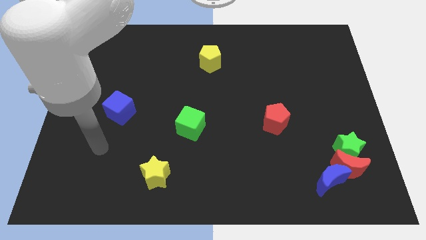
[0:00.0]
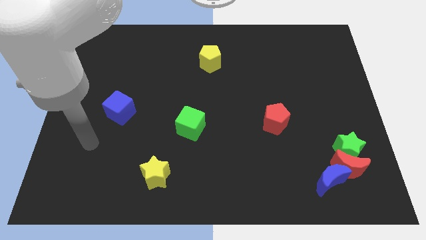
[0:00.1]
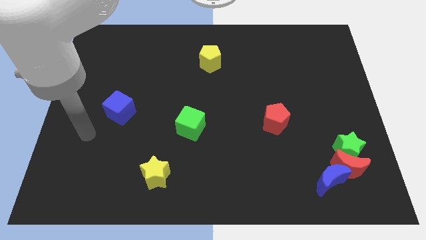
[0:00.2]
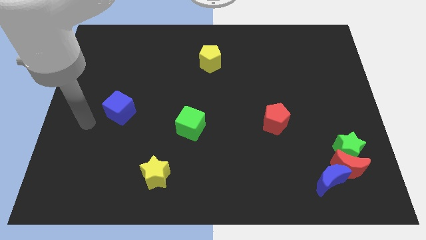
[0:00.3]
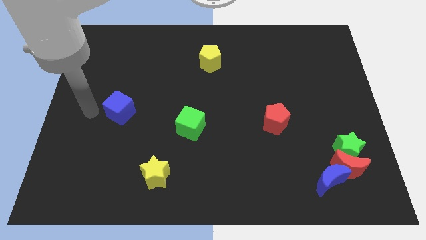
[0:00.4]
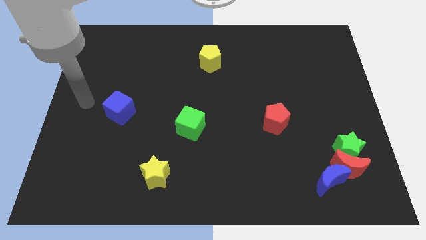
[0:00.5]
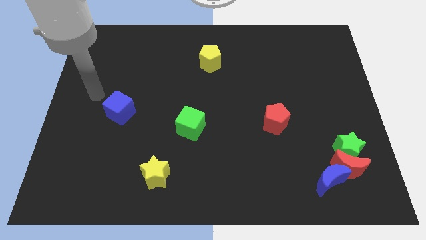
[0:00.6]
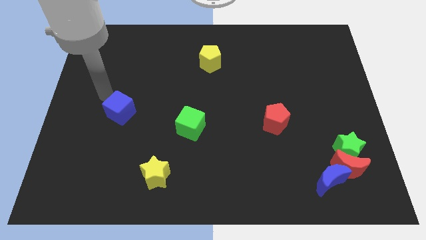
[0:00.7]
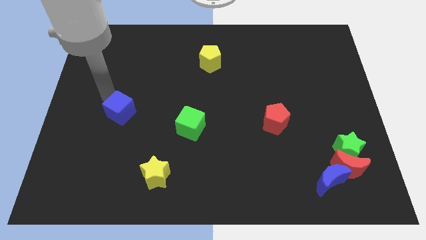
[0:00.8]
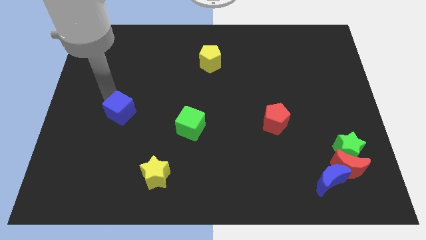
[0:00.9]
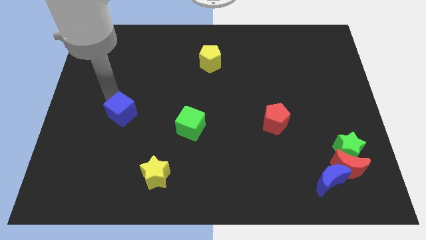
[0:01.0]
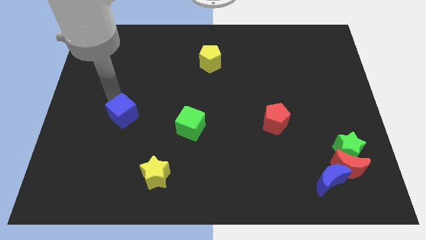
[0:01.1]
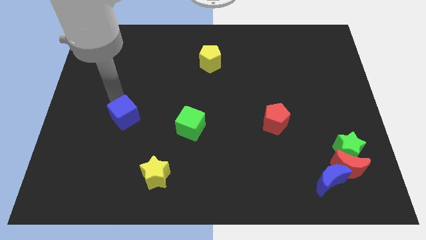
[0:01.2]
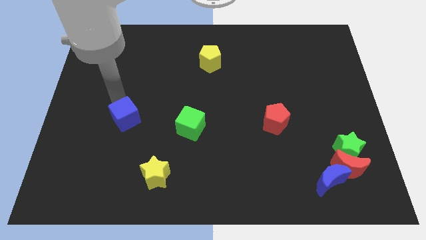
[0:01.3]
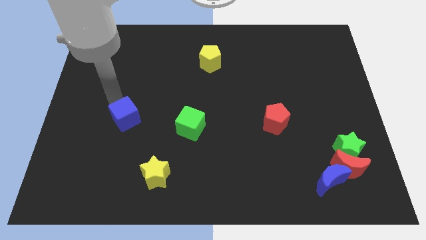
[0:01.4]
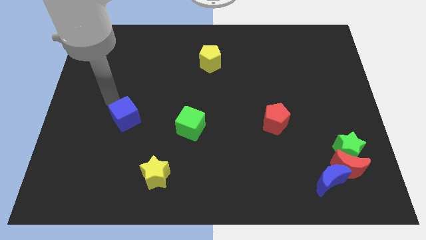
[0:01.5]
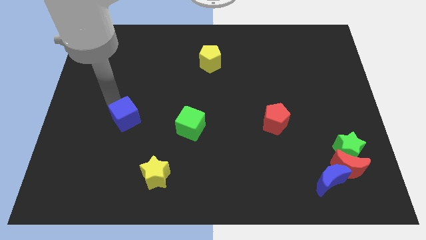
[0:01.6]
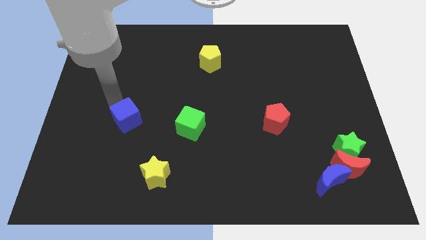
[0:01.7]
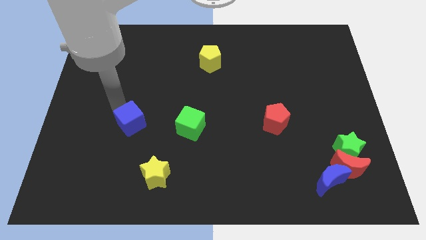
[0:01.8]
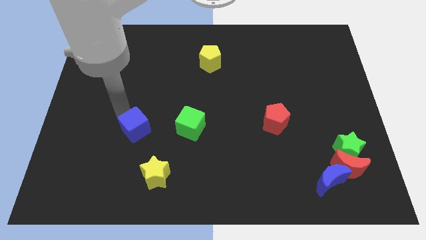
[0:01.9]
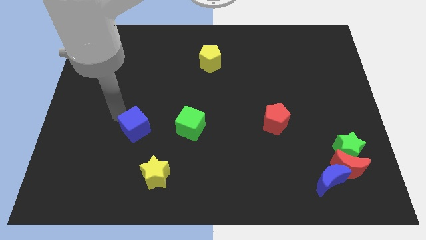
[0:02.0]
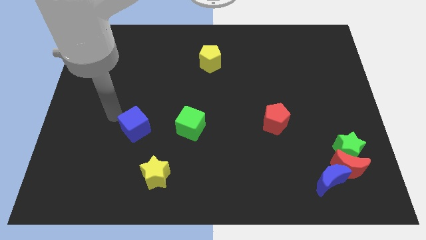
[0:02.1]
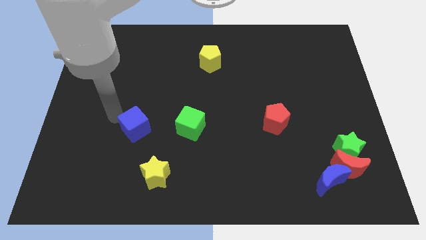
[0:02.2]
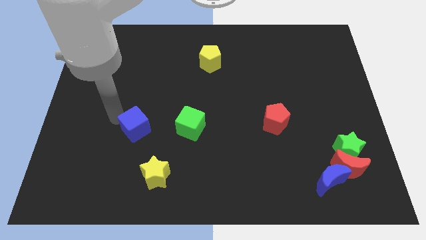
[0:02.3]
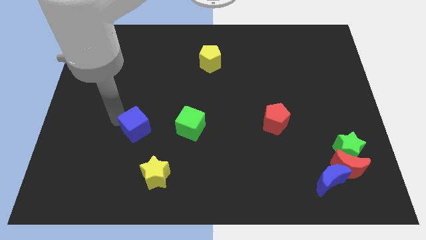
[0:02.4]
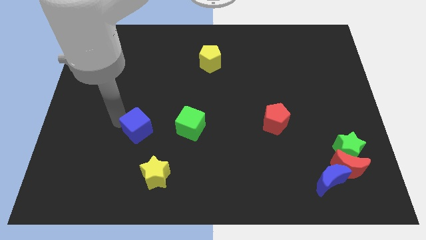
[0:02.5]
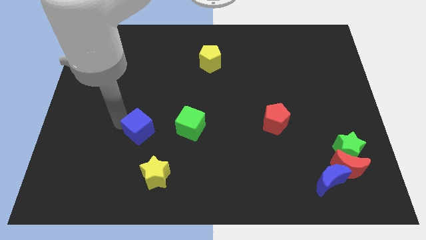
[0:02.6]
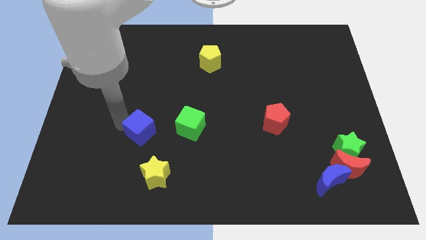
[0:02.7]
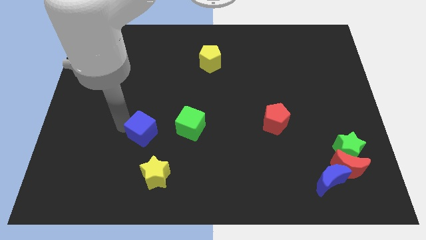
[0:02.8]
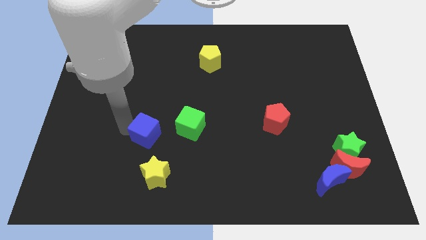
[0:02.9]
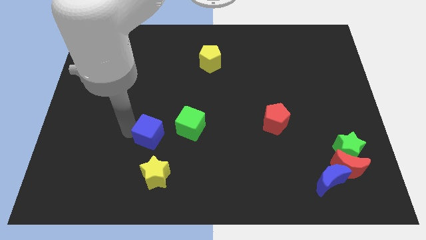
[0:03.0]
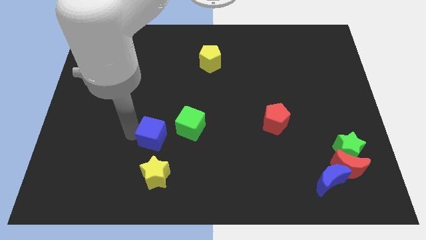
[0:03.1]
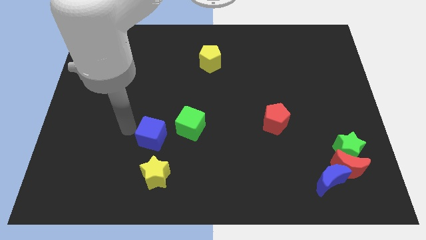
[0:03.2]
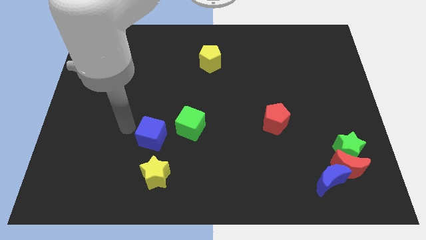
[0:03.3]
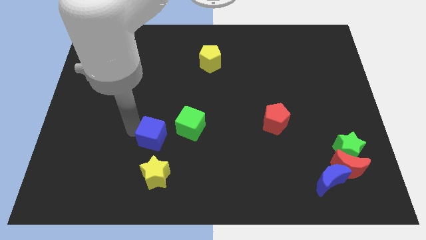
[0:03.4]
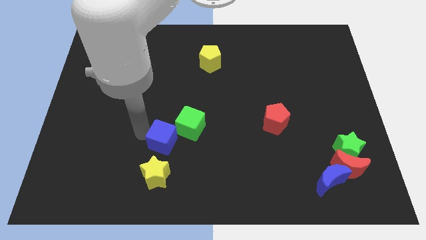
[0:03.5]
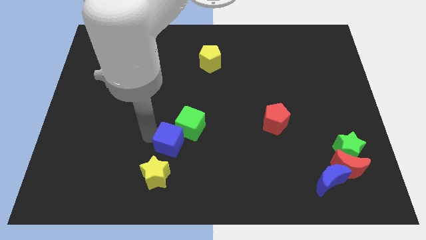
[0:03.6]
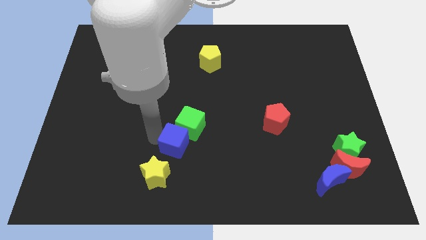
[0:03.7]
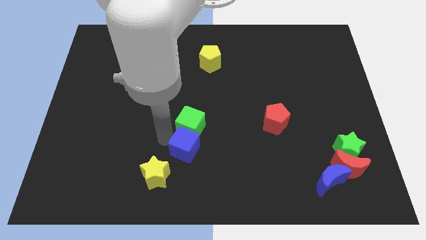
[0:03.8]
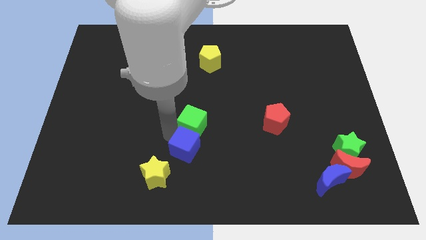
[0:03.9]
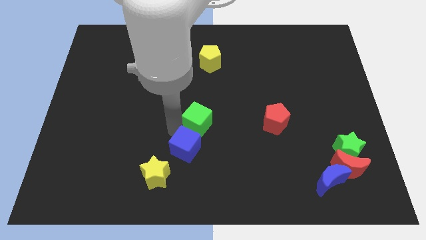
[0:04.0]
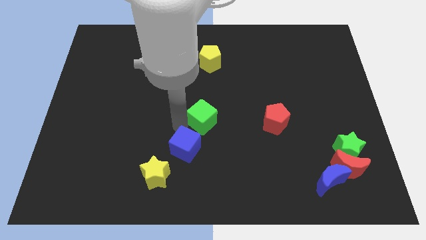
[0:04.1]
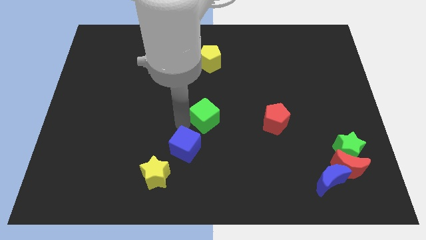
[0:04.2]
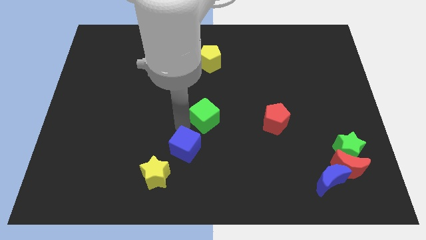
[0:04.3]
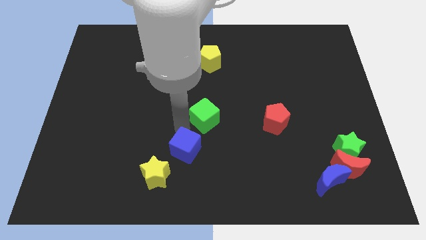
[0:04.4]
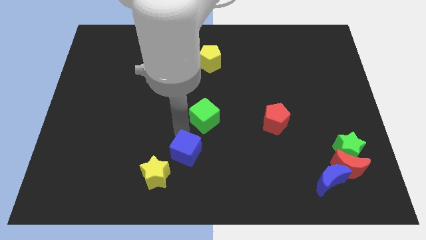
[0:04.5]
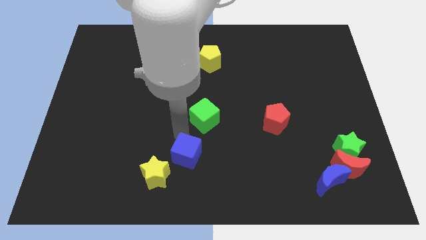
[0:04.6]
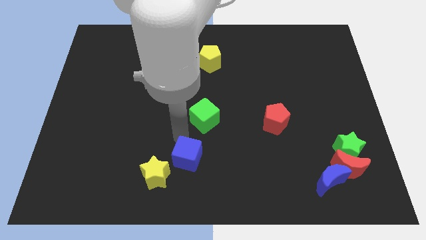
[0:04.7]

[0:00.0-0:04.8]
push the blue cube to the bottom side

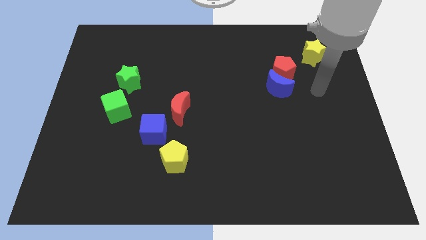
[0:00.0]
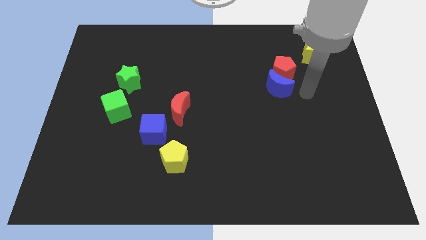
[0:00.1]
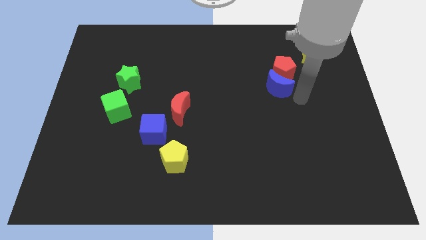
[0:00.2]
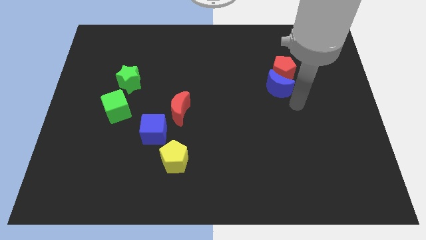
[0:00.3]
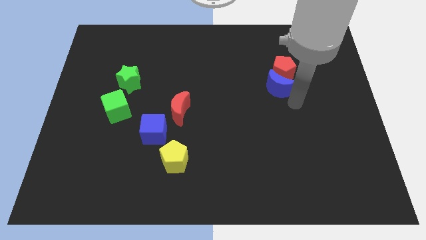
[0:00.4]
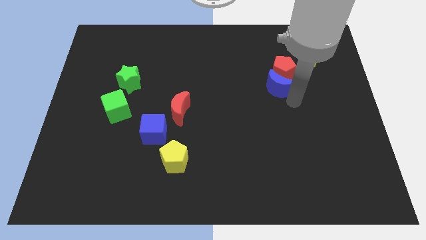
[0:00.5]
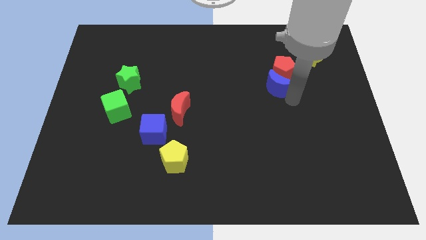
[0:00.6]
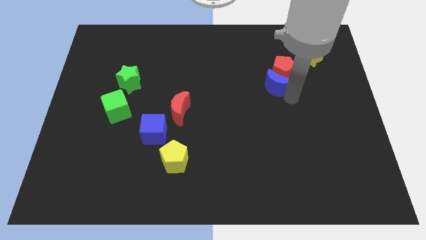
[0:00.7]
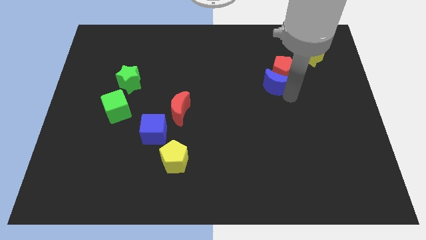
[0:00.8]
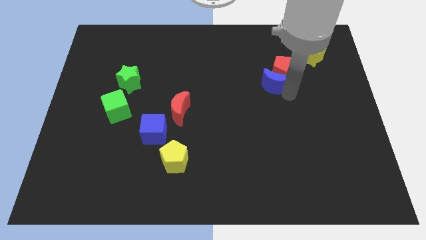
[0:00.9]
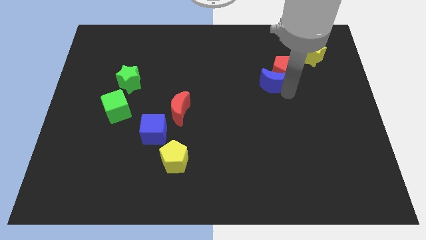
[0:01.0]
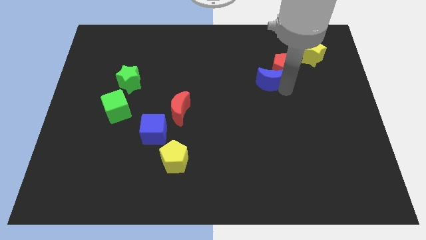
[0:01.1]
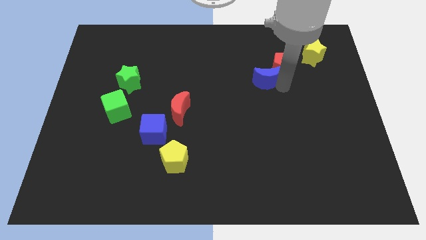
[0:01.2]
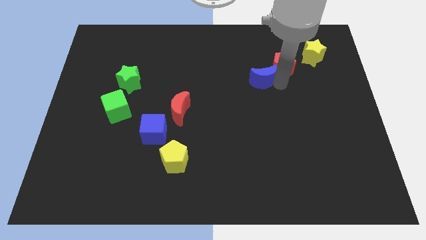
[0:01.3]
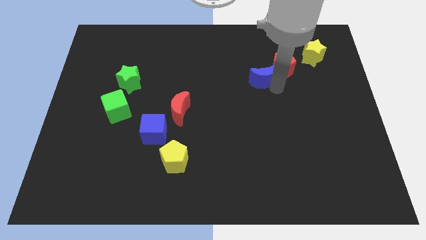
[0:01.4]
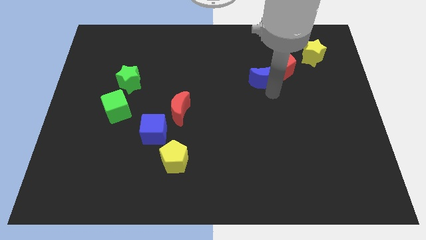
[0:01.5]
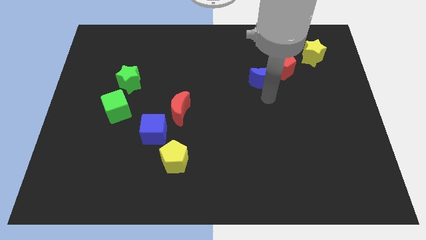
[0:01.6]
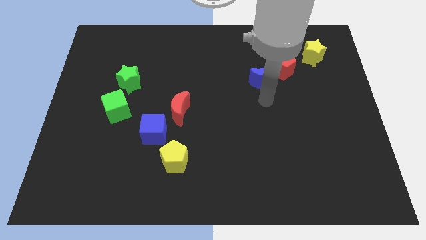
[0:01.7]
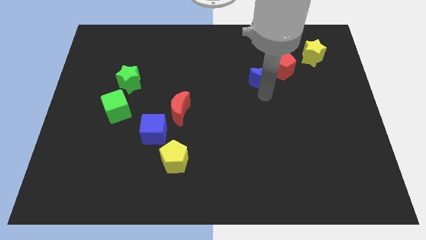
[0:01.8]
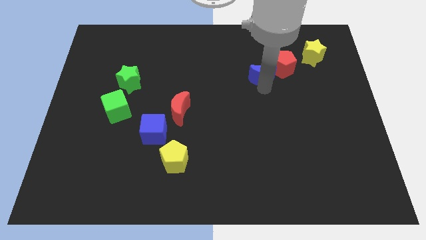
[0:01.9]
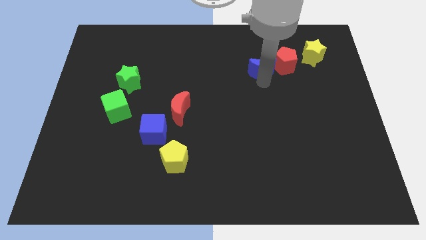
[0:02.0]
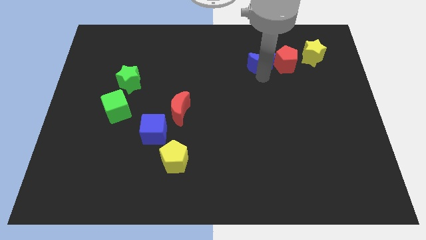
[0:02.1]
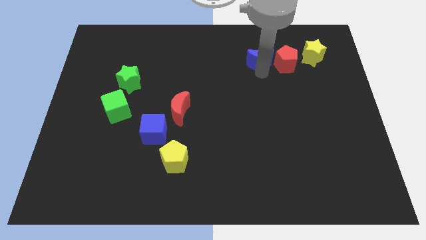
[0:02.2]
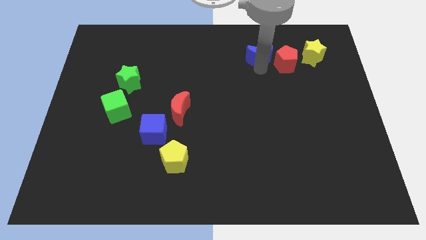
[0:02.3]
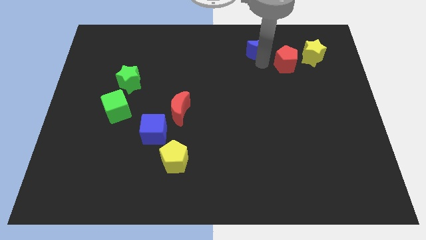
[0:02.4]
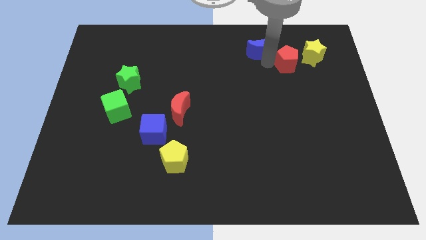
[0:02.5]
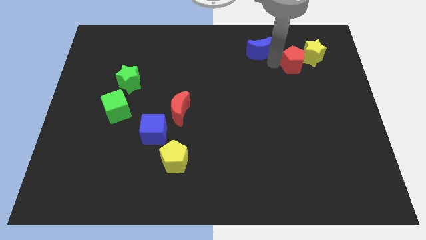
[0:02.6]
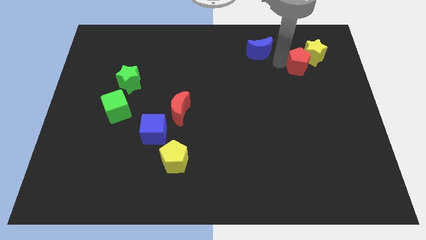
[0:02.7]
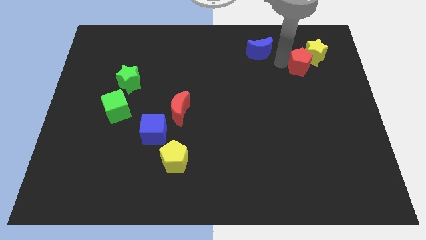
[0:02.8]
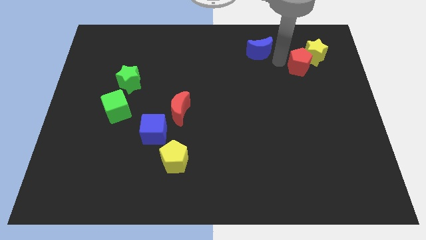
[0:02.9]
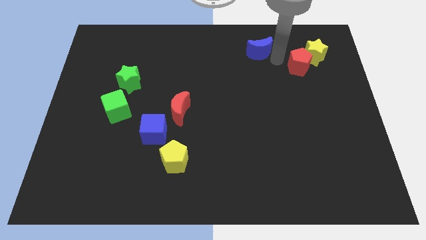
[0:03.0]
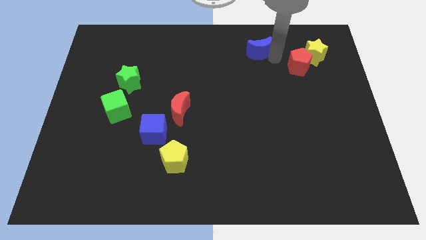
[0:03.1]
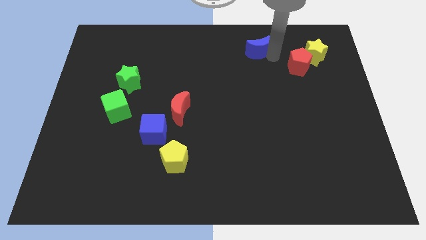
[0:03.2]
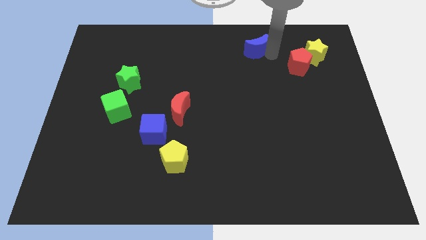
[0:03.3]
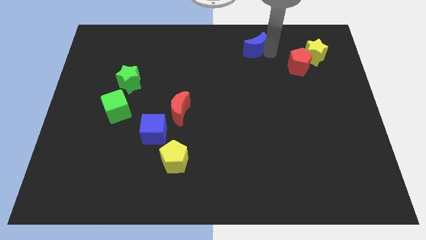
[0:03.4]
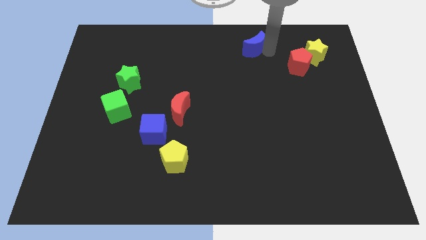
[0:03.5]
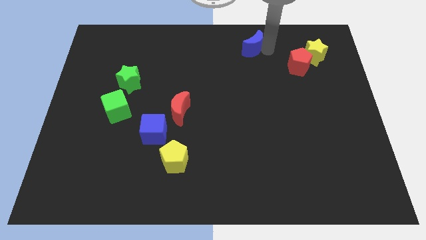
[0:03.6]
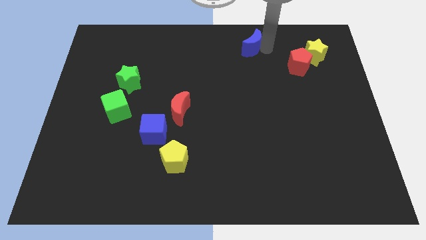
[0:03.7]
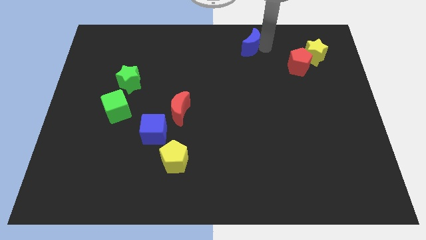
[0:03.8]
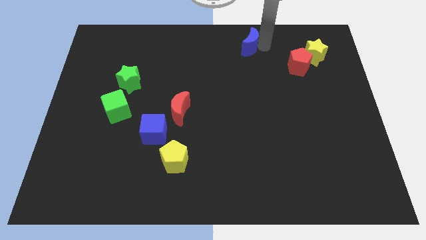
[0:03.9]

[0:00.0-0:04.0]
push the blue moon to the top side
